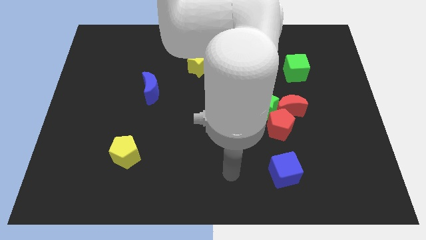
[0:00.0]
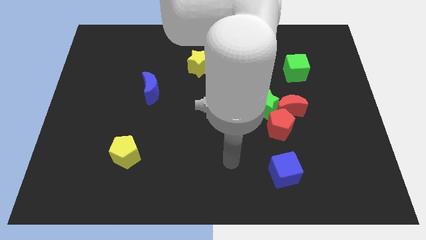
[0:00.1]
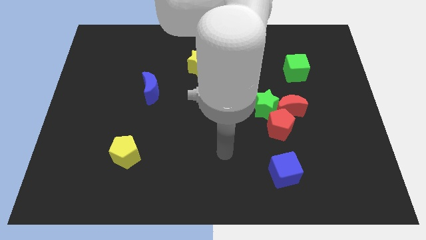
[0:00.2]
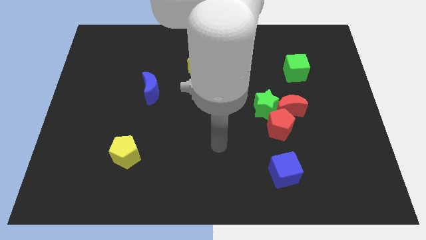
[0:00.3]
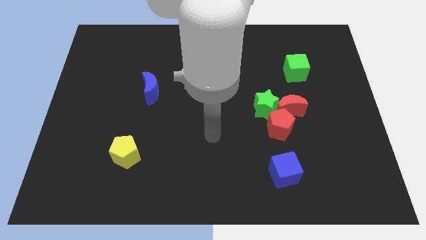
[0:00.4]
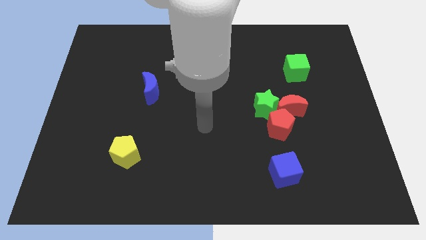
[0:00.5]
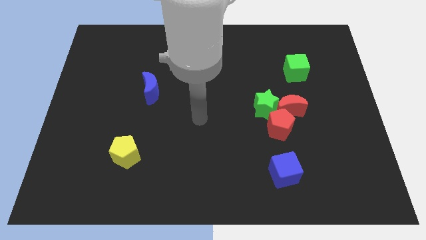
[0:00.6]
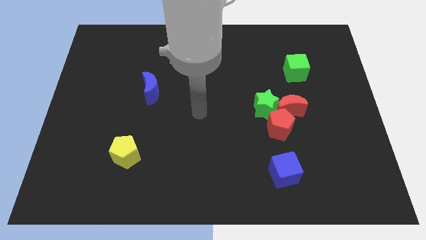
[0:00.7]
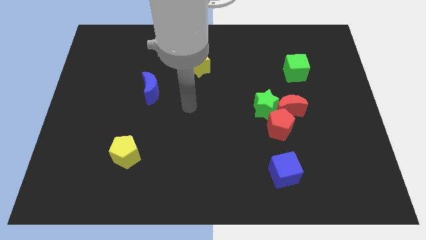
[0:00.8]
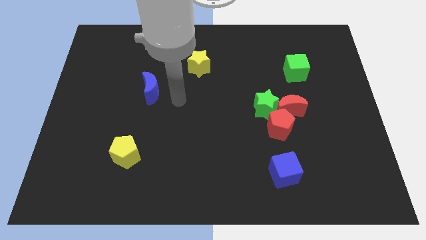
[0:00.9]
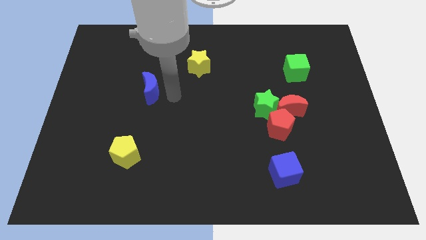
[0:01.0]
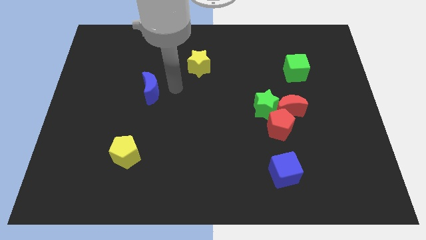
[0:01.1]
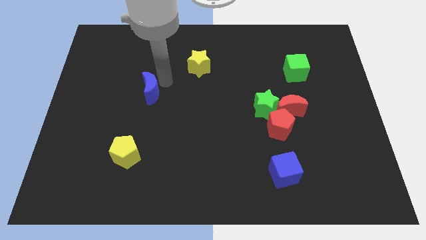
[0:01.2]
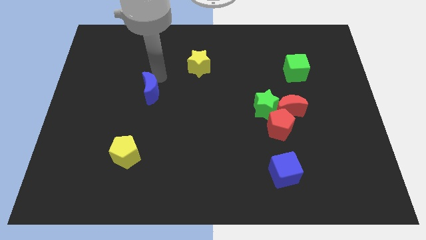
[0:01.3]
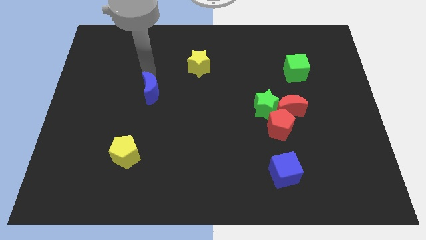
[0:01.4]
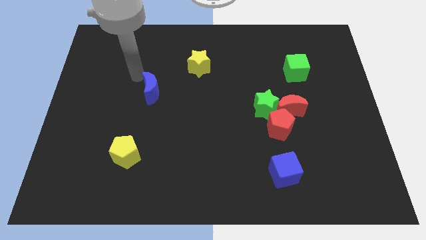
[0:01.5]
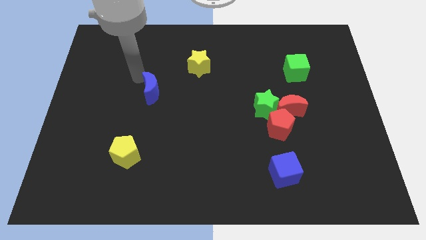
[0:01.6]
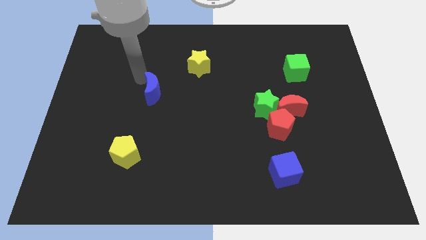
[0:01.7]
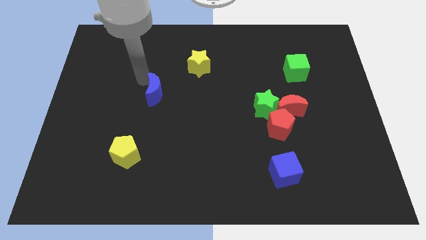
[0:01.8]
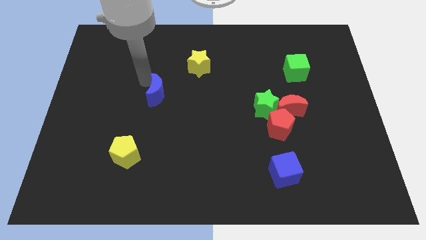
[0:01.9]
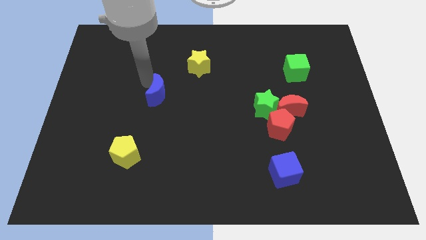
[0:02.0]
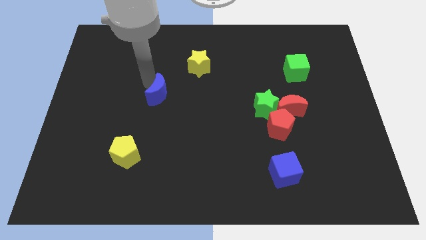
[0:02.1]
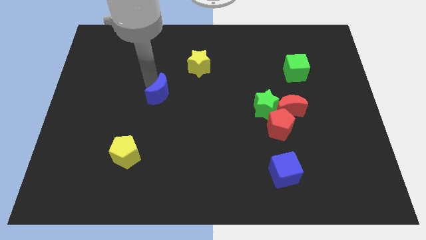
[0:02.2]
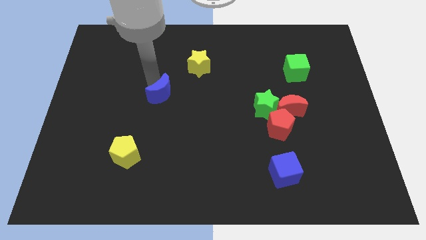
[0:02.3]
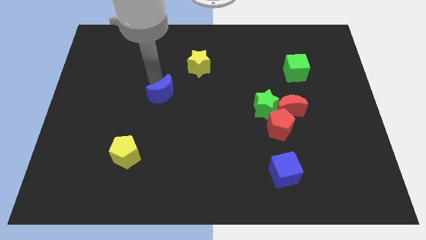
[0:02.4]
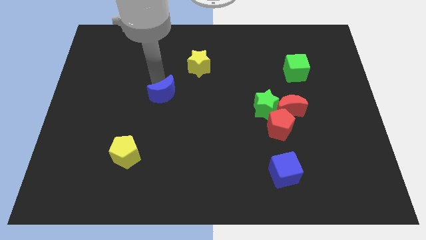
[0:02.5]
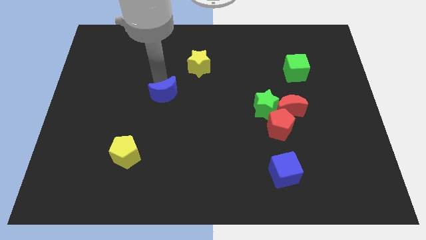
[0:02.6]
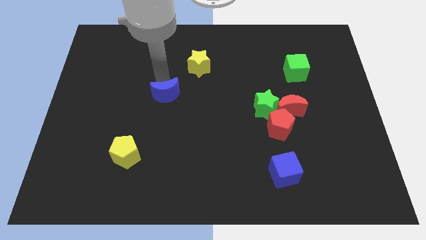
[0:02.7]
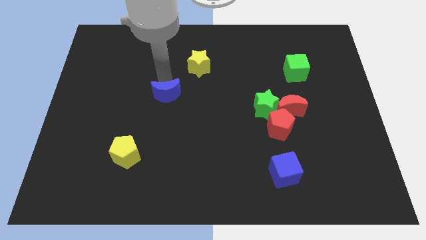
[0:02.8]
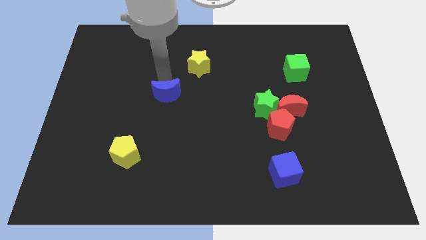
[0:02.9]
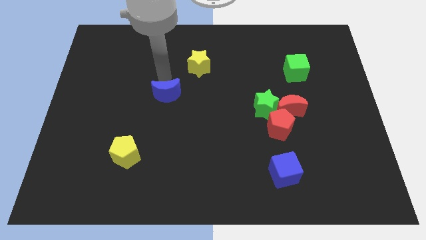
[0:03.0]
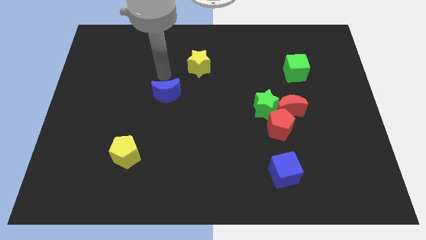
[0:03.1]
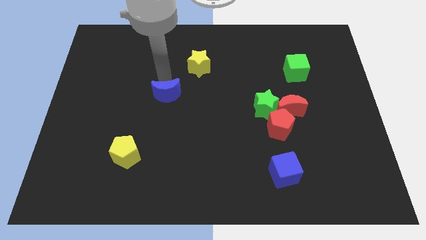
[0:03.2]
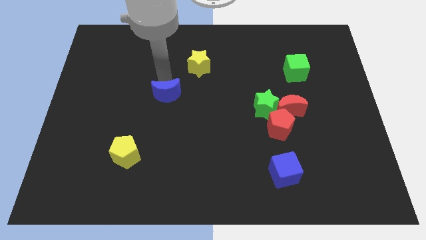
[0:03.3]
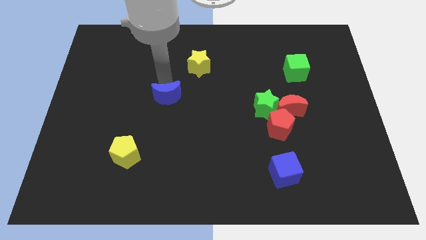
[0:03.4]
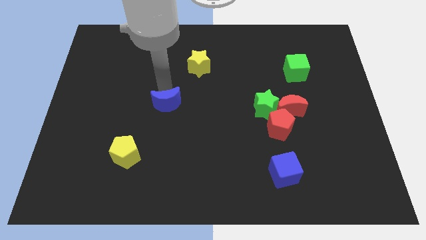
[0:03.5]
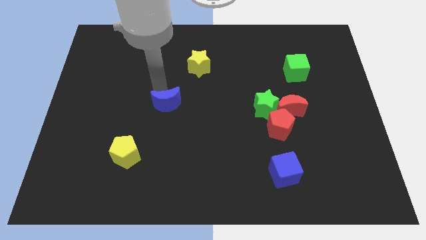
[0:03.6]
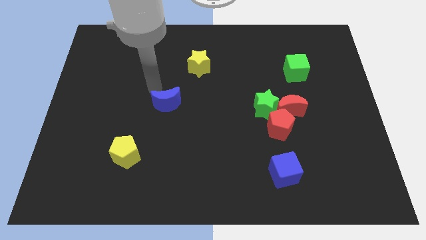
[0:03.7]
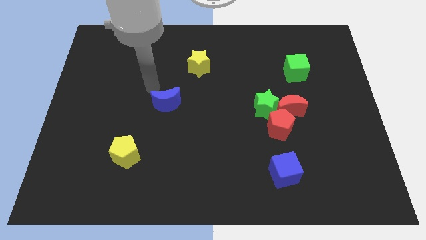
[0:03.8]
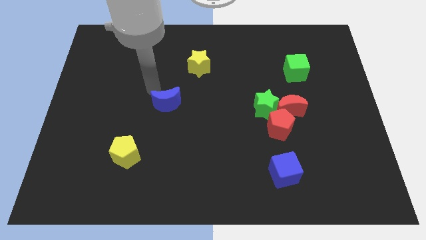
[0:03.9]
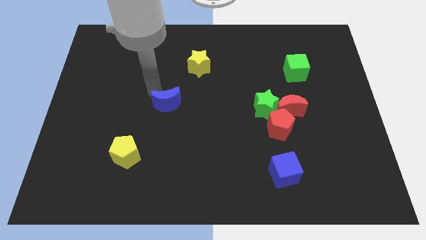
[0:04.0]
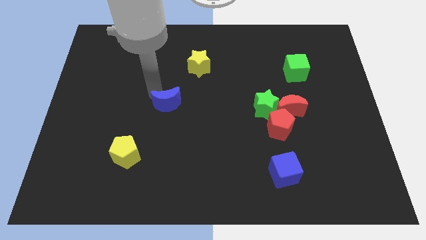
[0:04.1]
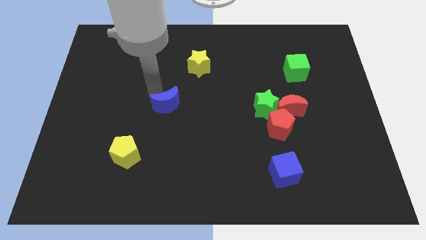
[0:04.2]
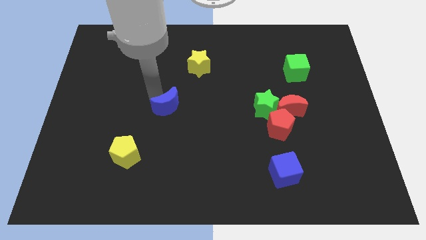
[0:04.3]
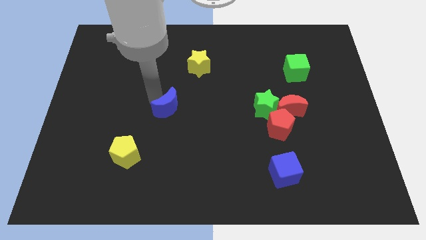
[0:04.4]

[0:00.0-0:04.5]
push the blue moon down and then right somewhat

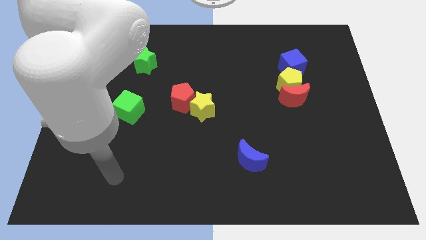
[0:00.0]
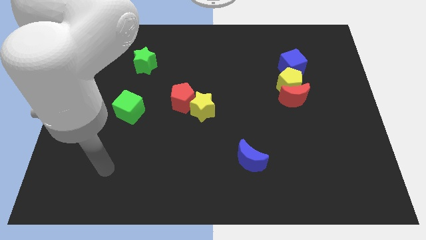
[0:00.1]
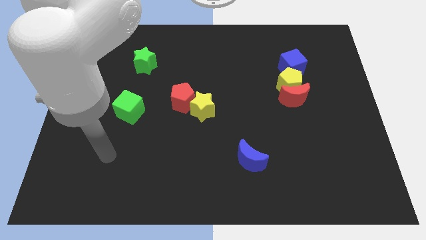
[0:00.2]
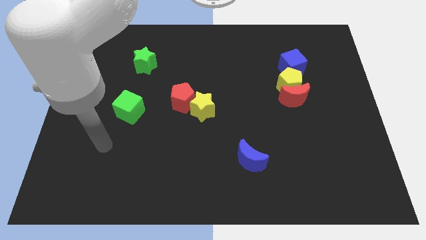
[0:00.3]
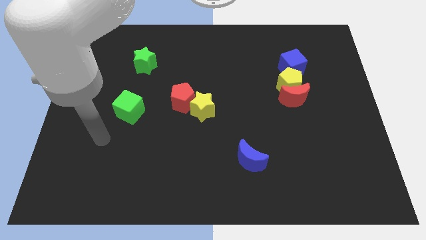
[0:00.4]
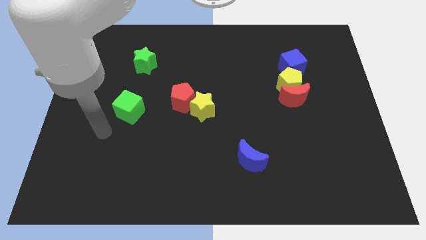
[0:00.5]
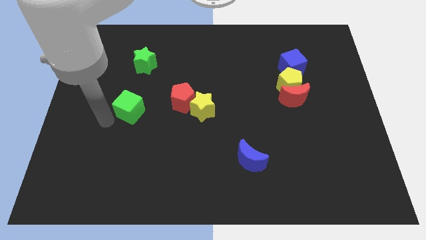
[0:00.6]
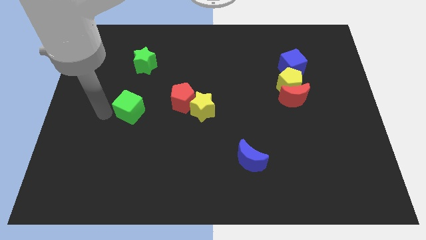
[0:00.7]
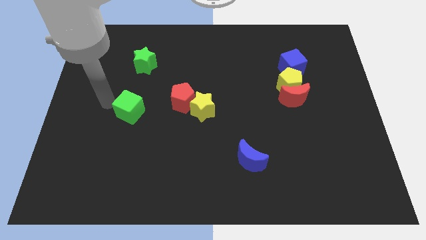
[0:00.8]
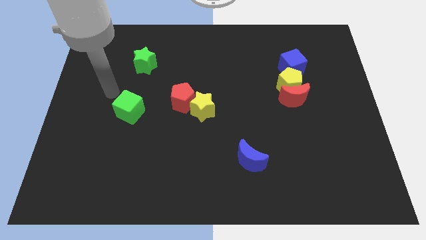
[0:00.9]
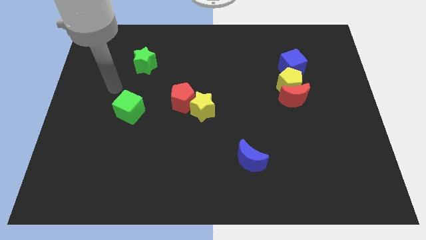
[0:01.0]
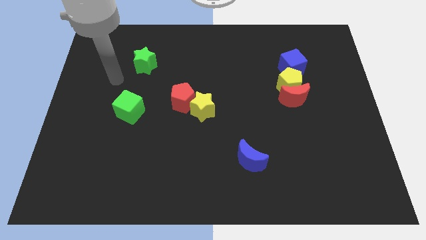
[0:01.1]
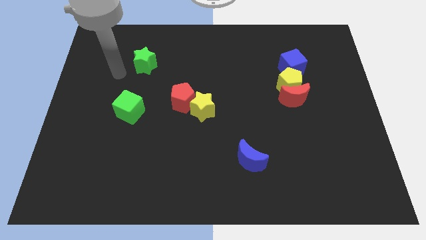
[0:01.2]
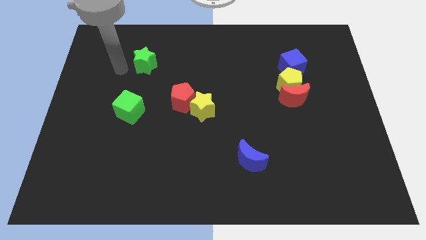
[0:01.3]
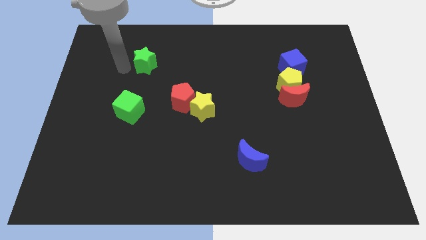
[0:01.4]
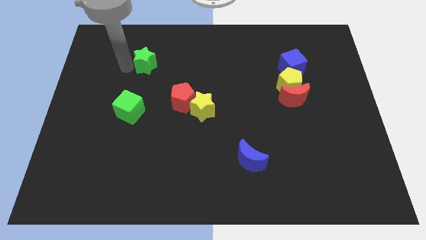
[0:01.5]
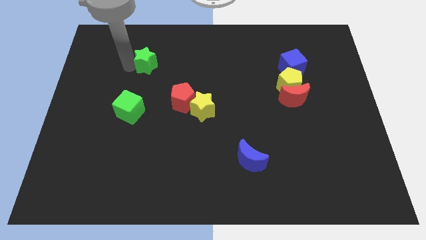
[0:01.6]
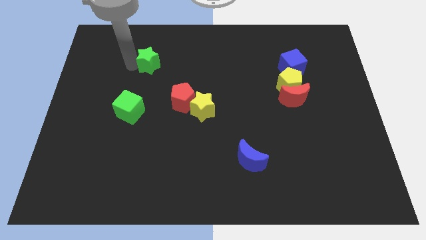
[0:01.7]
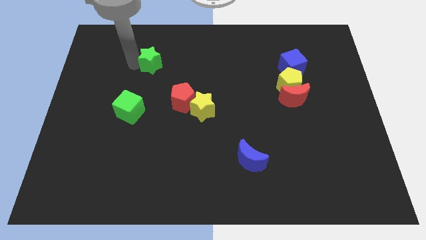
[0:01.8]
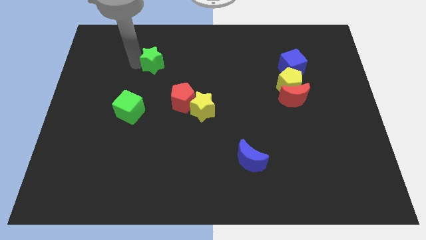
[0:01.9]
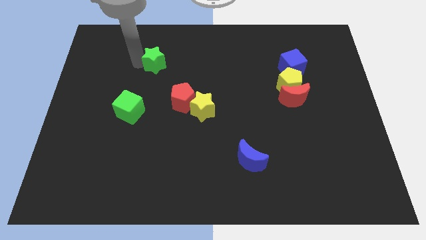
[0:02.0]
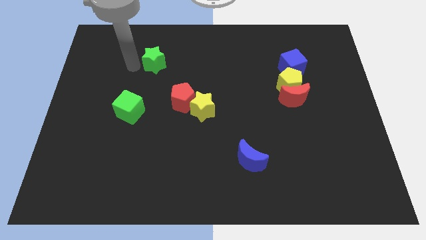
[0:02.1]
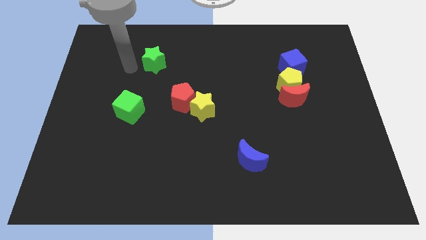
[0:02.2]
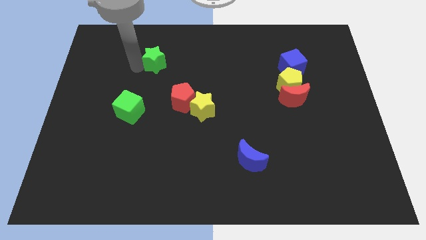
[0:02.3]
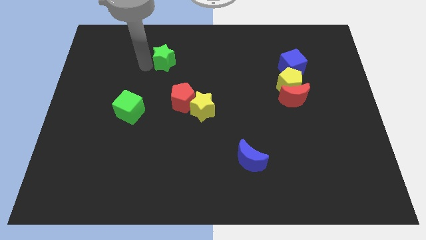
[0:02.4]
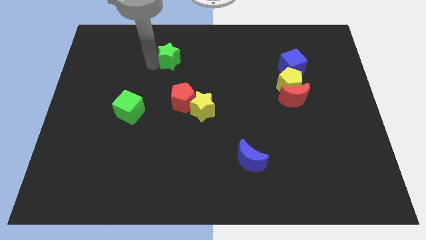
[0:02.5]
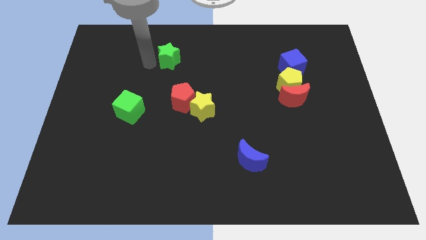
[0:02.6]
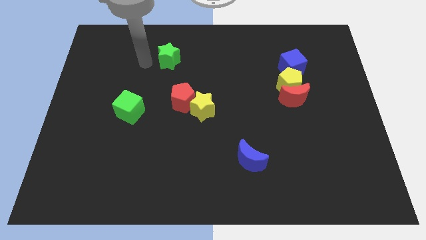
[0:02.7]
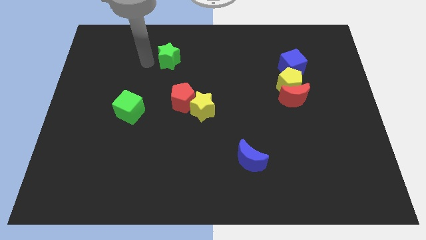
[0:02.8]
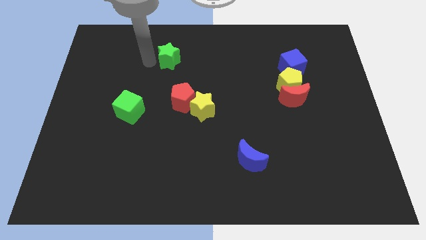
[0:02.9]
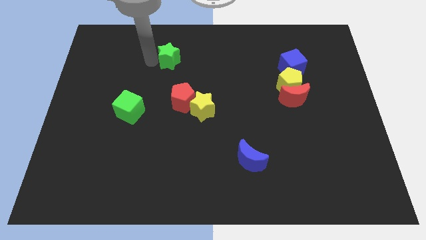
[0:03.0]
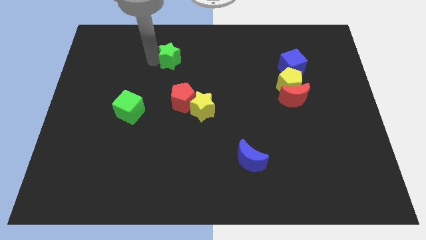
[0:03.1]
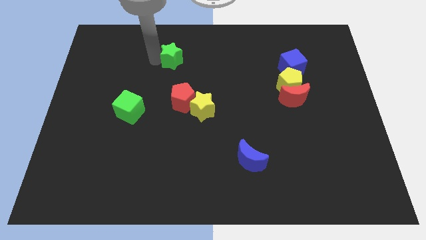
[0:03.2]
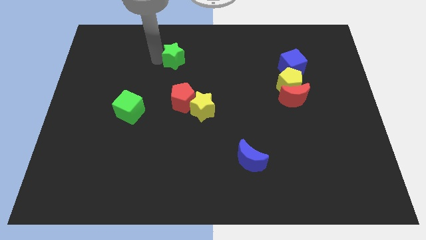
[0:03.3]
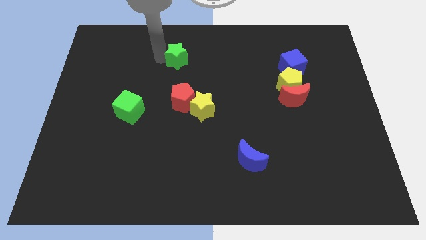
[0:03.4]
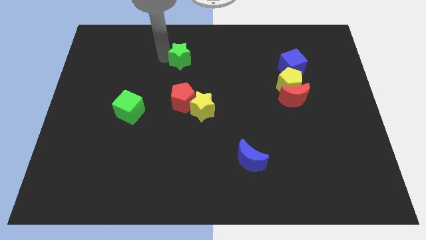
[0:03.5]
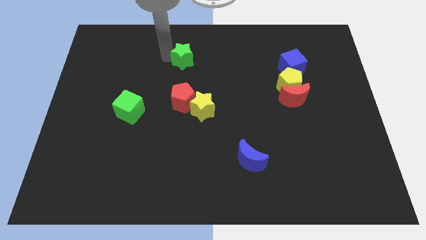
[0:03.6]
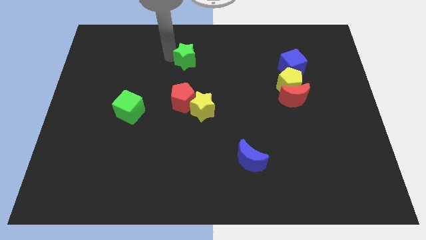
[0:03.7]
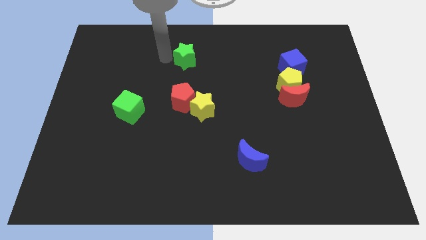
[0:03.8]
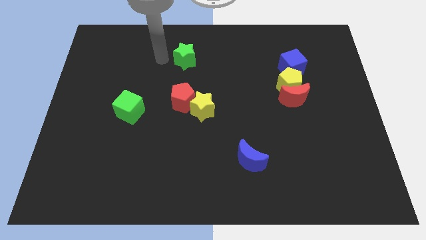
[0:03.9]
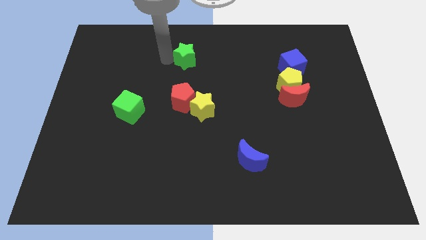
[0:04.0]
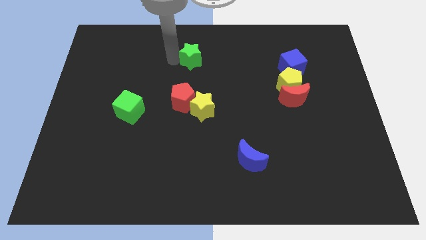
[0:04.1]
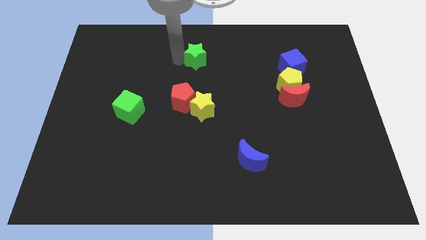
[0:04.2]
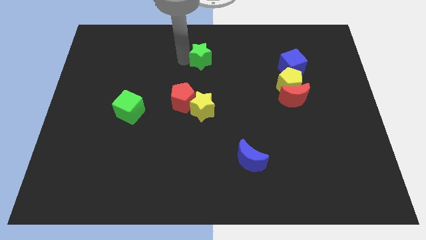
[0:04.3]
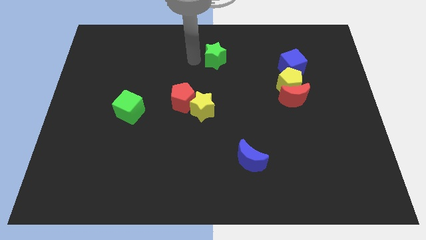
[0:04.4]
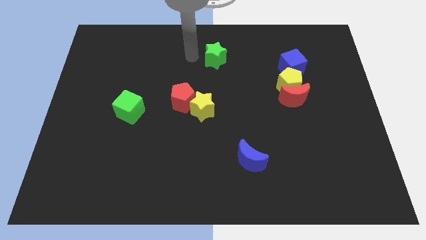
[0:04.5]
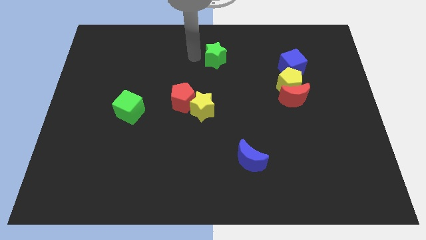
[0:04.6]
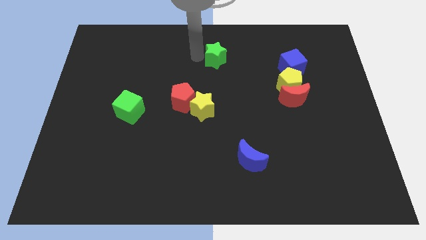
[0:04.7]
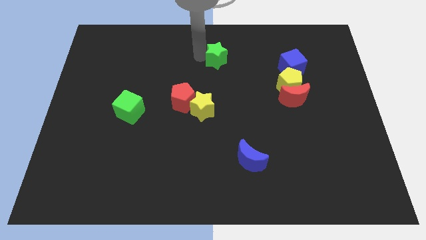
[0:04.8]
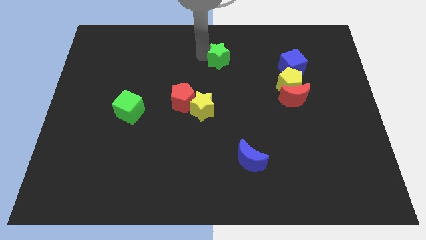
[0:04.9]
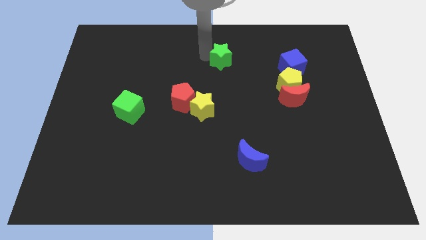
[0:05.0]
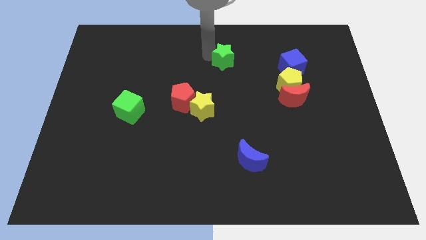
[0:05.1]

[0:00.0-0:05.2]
move the green star to the right
